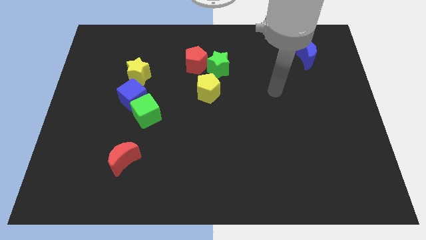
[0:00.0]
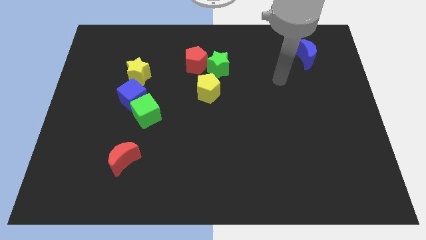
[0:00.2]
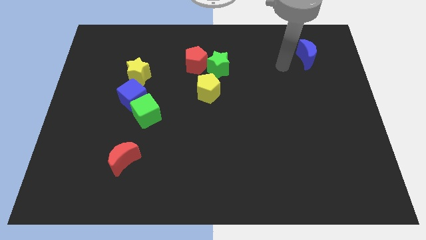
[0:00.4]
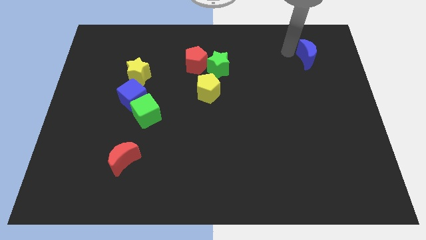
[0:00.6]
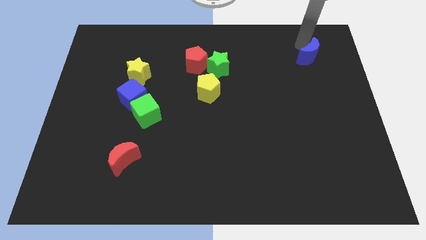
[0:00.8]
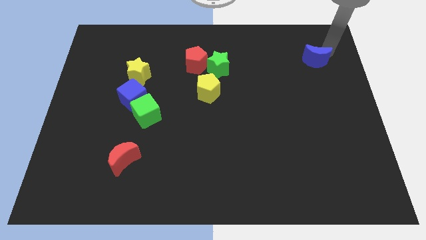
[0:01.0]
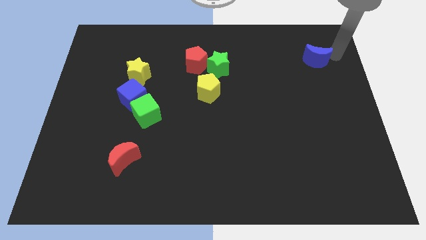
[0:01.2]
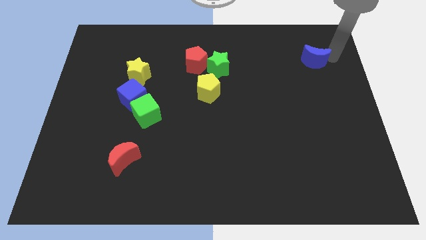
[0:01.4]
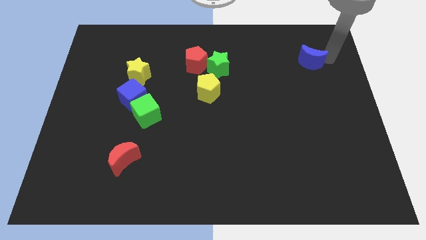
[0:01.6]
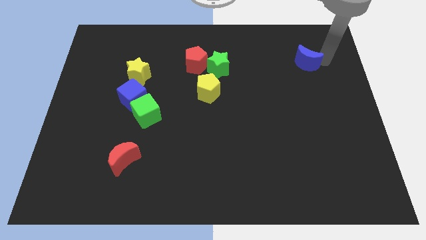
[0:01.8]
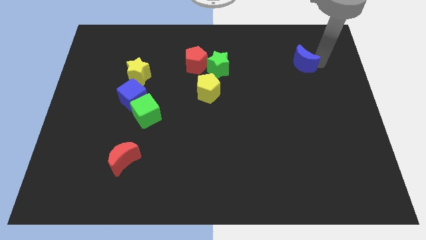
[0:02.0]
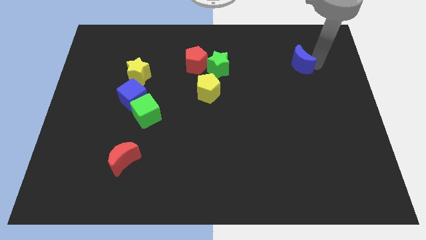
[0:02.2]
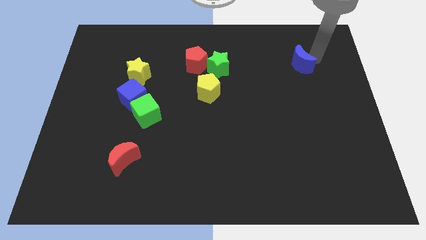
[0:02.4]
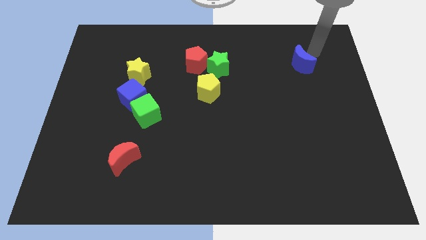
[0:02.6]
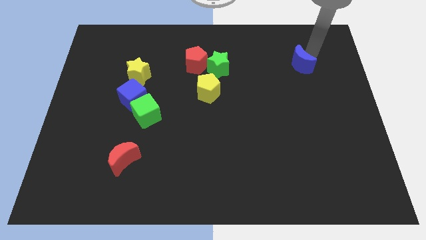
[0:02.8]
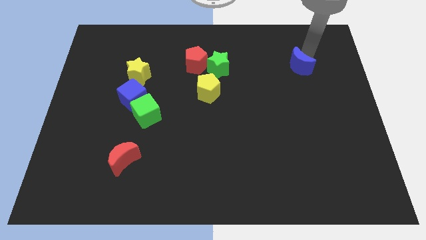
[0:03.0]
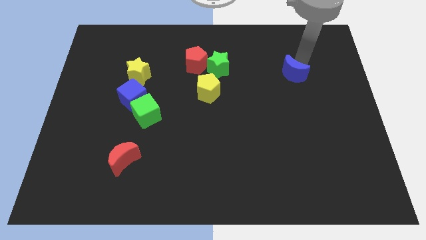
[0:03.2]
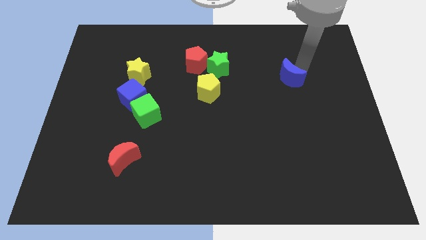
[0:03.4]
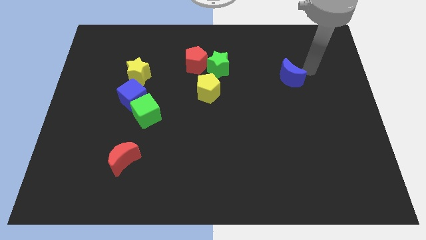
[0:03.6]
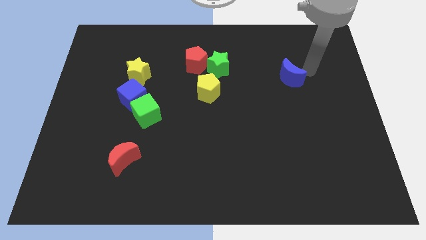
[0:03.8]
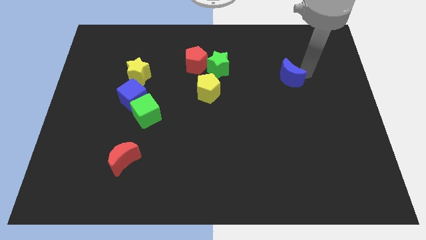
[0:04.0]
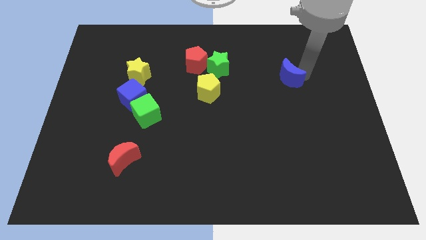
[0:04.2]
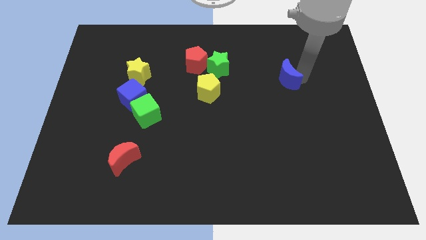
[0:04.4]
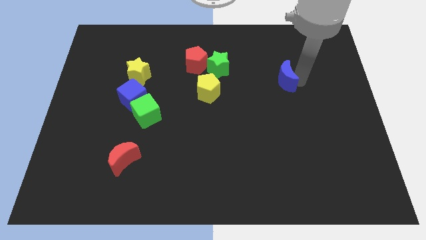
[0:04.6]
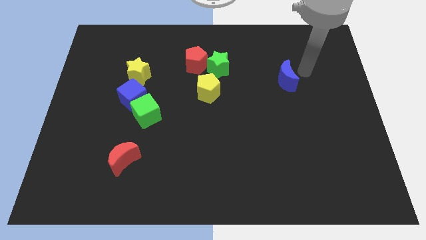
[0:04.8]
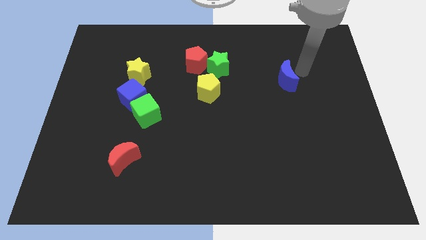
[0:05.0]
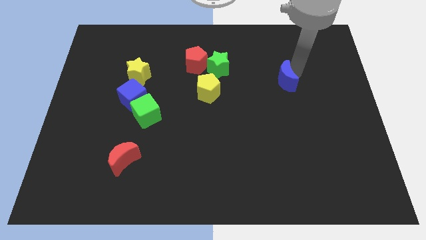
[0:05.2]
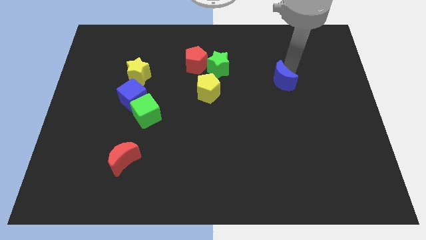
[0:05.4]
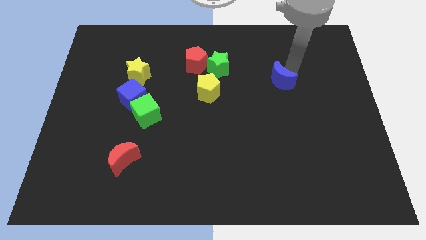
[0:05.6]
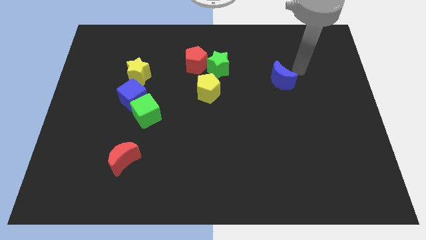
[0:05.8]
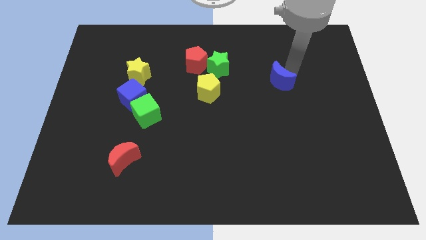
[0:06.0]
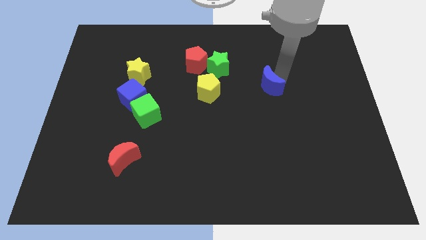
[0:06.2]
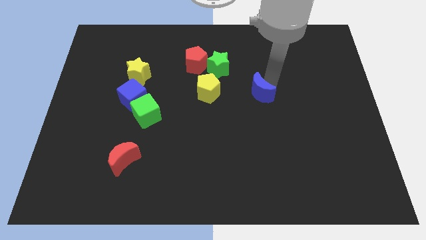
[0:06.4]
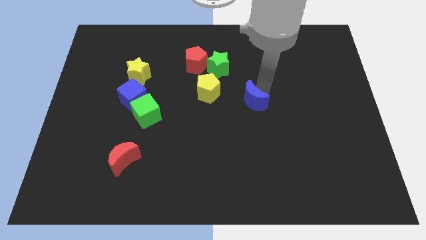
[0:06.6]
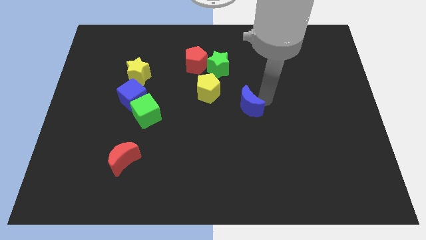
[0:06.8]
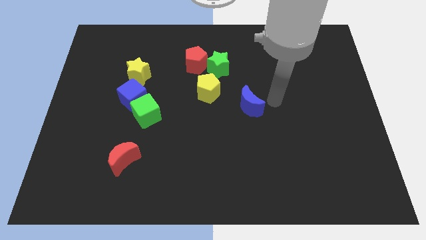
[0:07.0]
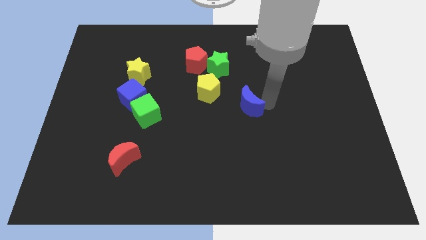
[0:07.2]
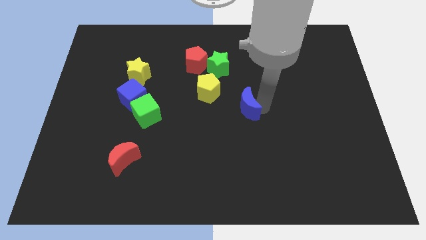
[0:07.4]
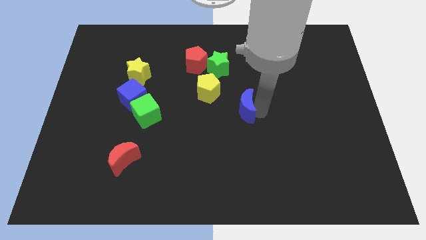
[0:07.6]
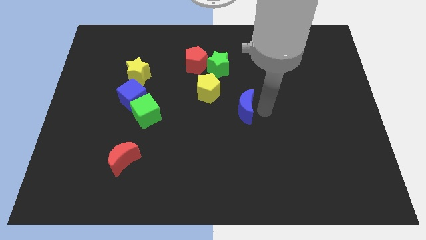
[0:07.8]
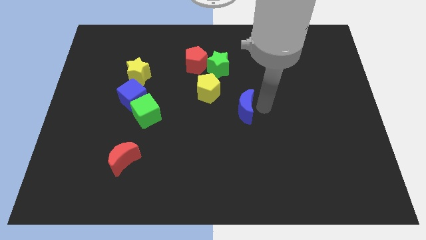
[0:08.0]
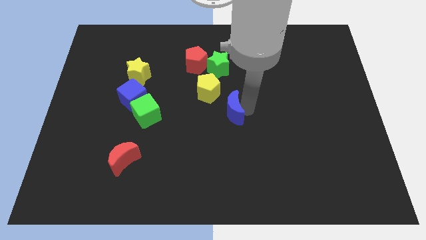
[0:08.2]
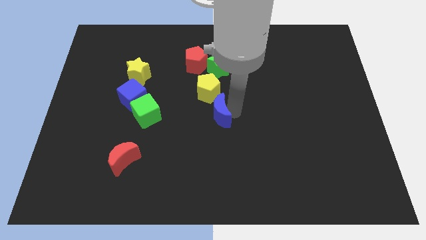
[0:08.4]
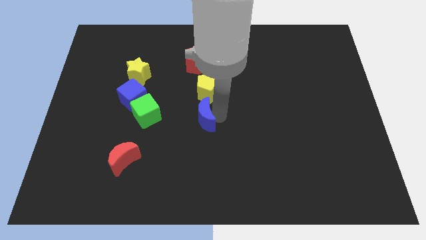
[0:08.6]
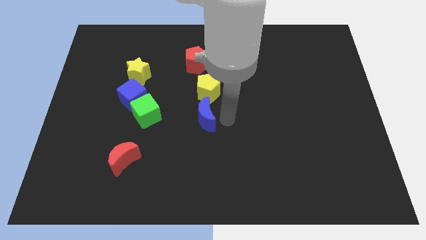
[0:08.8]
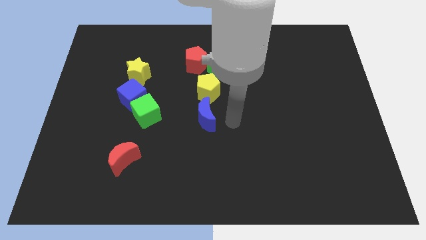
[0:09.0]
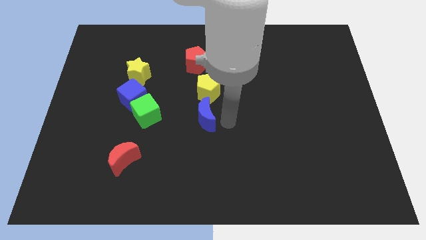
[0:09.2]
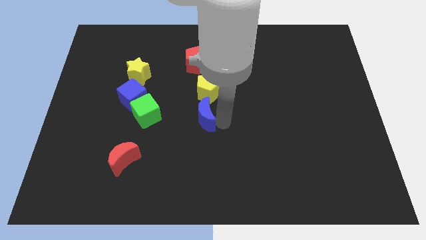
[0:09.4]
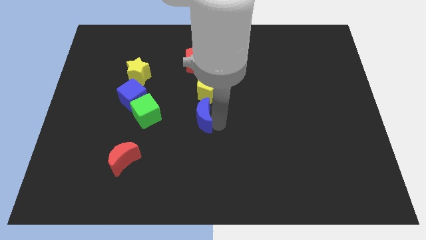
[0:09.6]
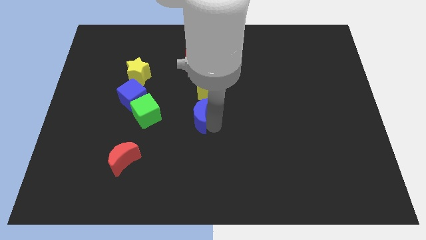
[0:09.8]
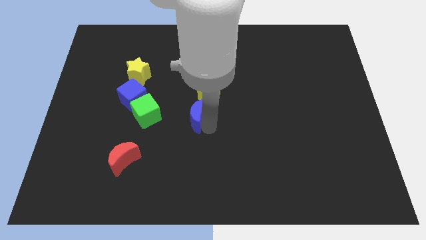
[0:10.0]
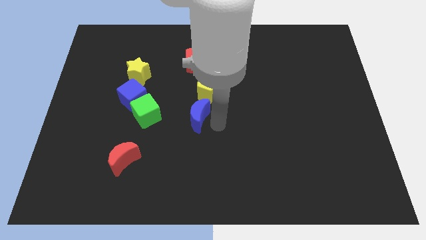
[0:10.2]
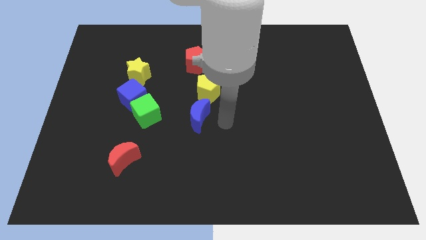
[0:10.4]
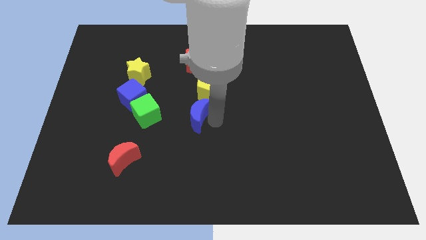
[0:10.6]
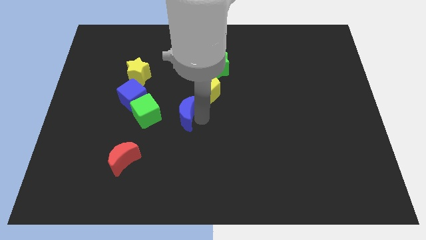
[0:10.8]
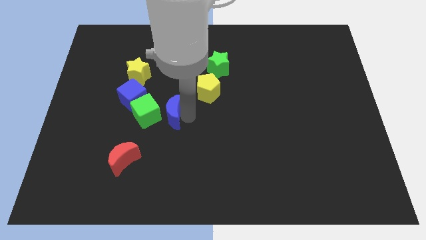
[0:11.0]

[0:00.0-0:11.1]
push the blue moon to the green cube

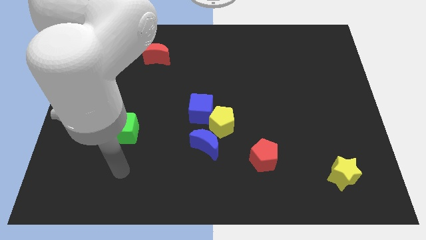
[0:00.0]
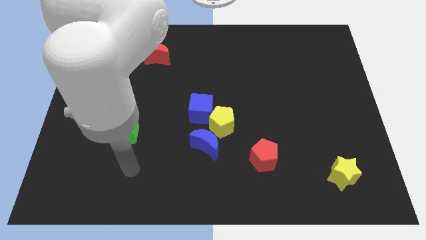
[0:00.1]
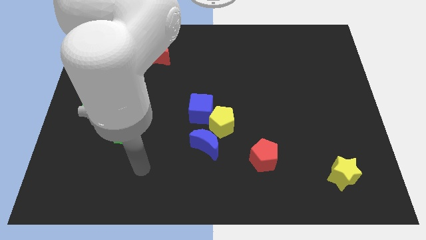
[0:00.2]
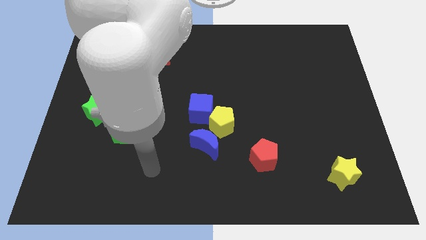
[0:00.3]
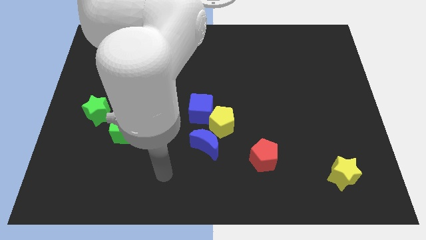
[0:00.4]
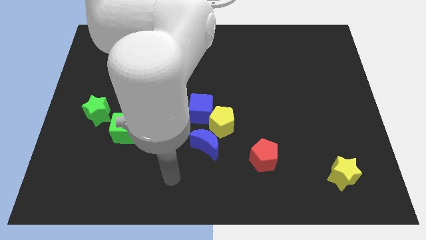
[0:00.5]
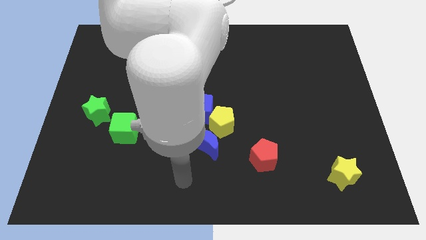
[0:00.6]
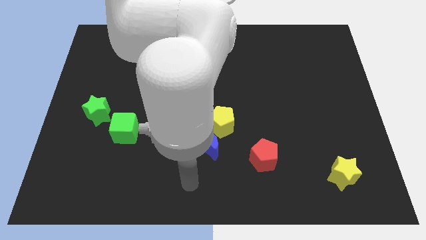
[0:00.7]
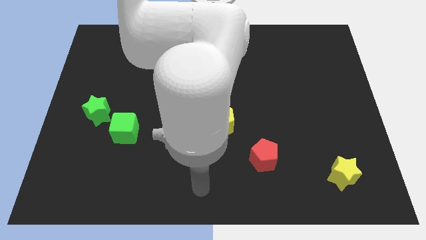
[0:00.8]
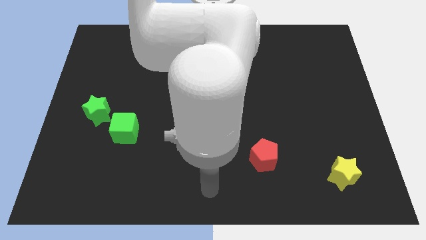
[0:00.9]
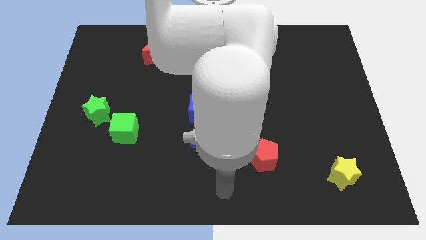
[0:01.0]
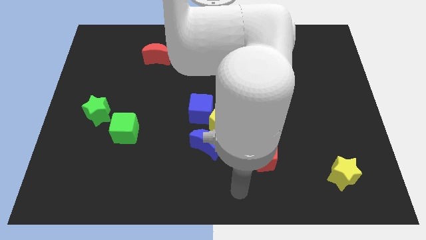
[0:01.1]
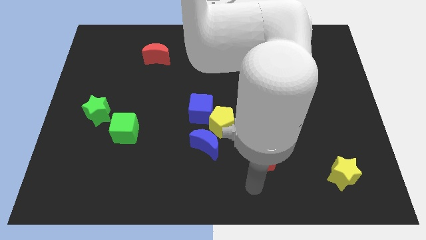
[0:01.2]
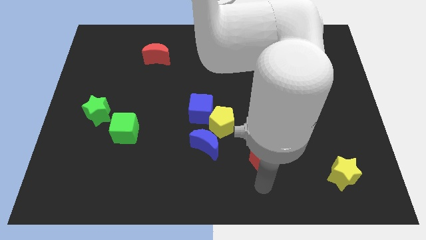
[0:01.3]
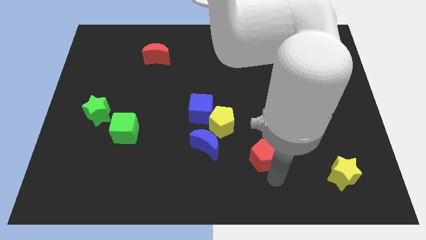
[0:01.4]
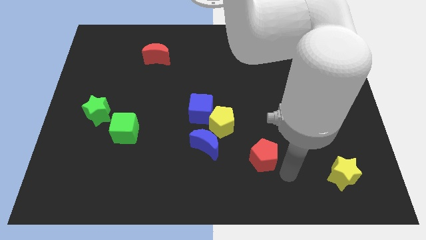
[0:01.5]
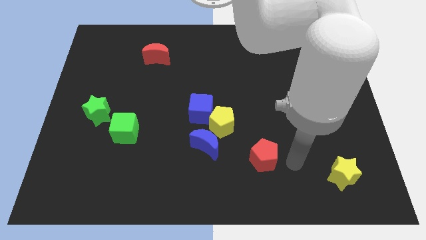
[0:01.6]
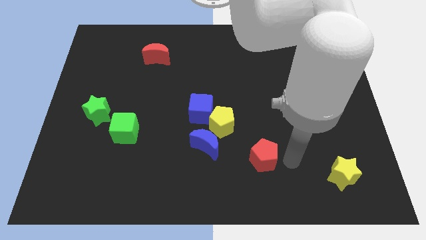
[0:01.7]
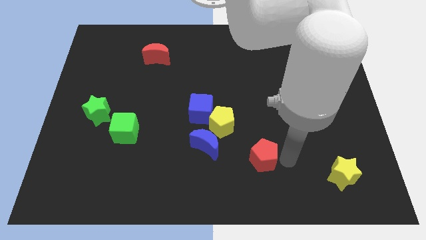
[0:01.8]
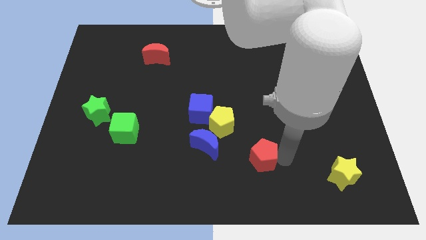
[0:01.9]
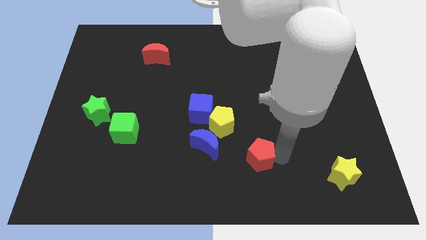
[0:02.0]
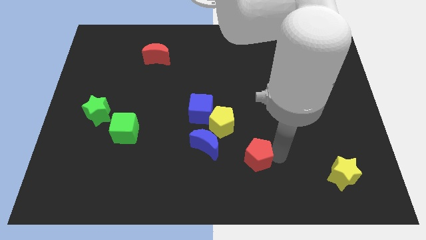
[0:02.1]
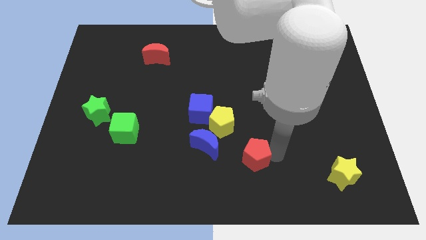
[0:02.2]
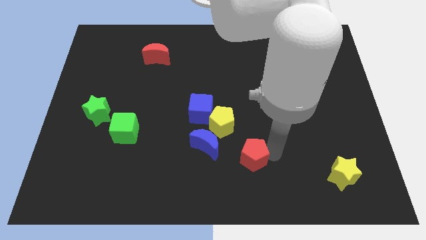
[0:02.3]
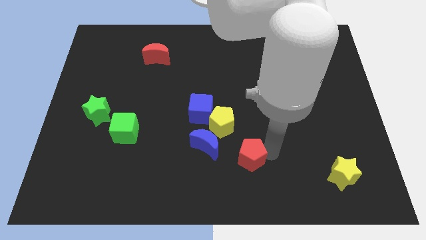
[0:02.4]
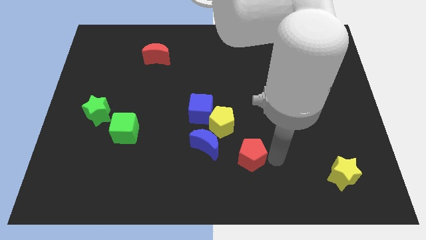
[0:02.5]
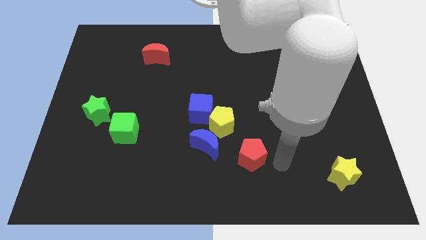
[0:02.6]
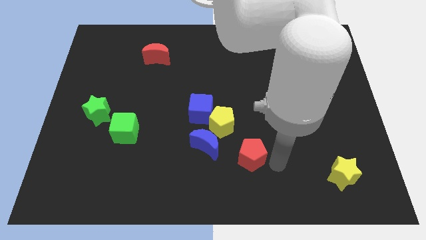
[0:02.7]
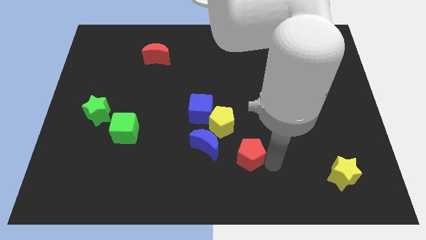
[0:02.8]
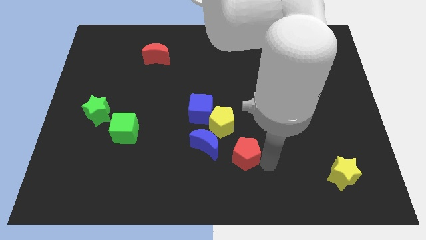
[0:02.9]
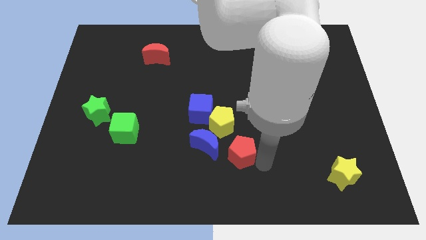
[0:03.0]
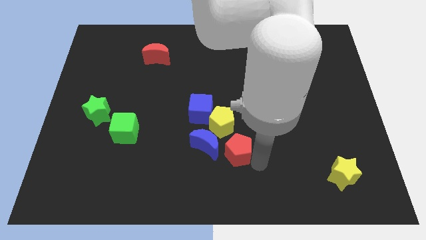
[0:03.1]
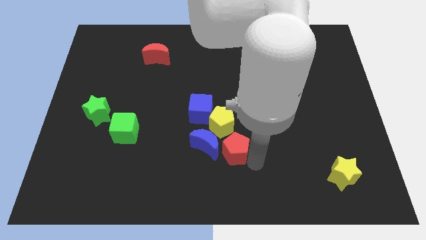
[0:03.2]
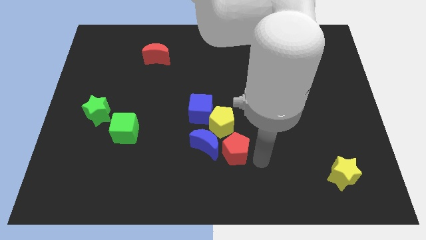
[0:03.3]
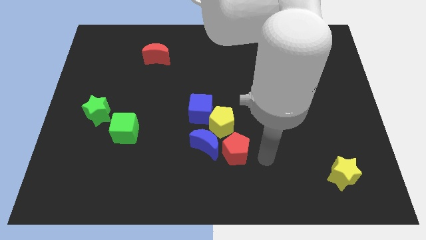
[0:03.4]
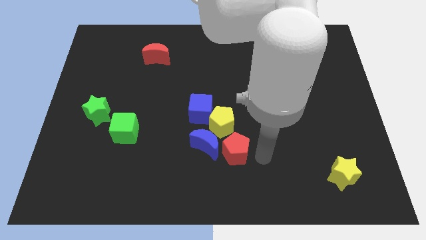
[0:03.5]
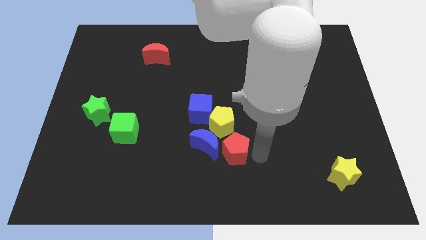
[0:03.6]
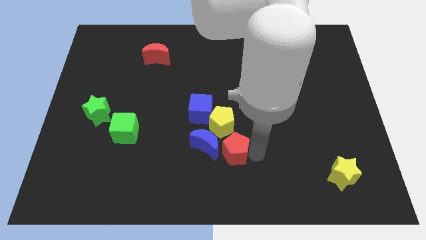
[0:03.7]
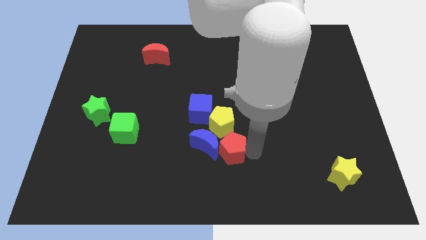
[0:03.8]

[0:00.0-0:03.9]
push the red pentagon close to the blue moon
